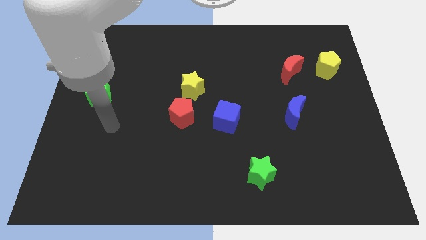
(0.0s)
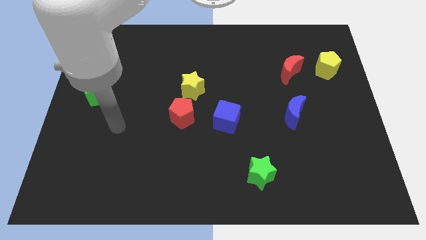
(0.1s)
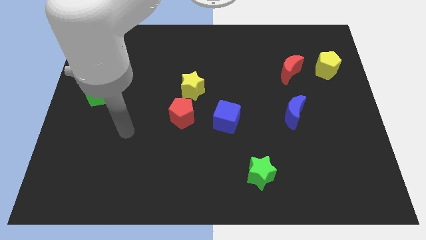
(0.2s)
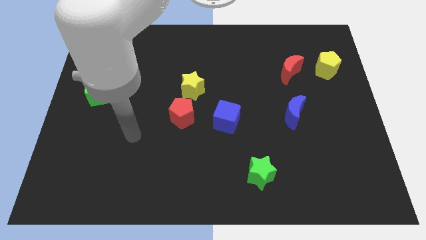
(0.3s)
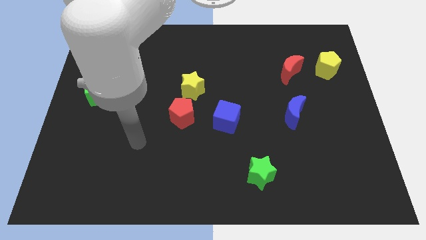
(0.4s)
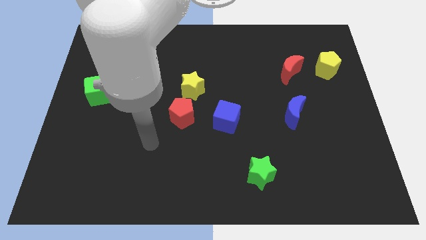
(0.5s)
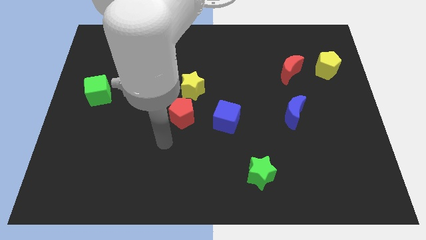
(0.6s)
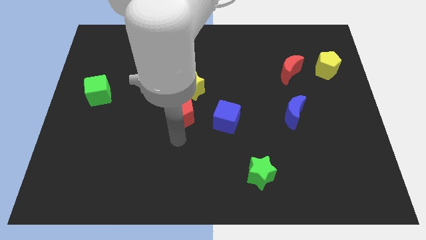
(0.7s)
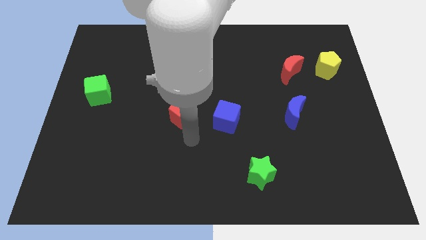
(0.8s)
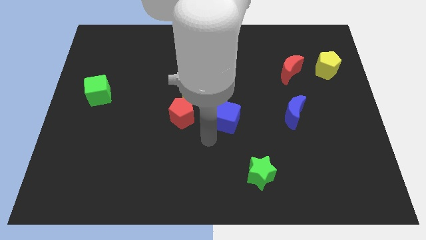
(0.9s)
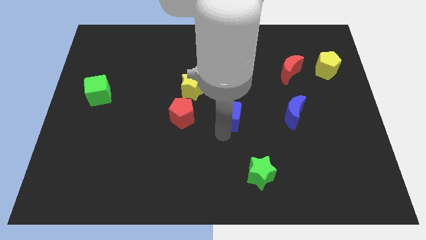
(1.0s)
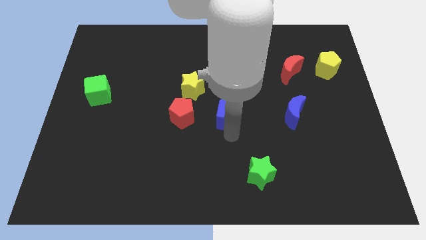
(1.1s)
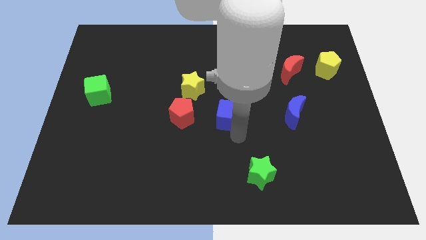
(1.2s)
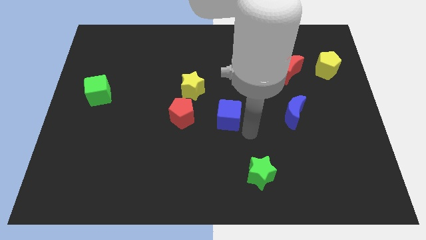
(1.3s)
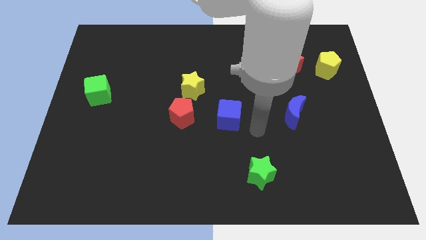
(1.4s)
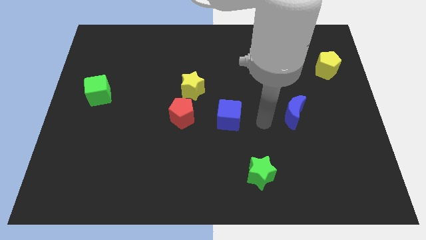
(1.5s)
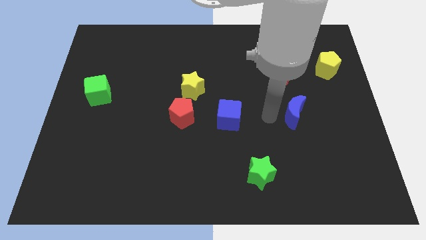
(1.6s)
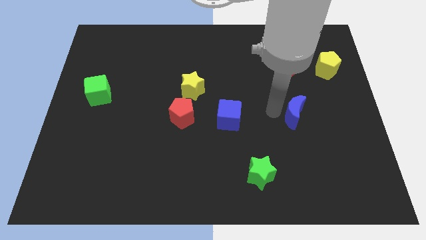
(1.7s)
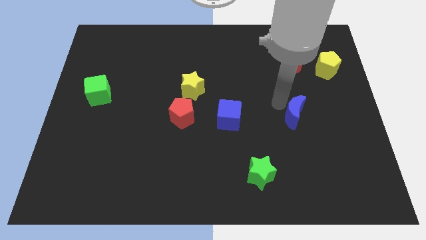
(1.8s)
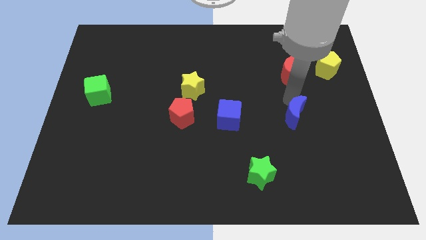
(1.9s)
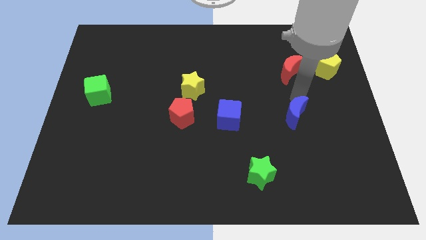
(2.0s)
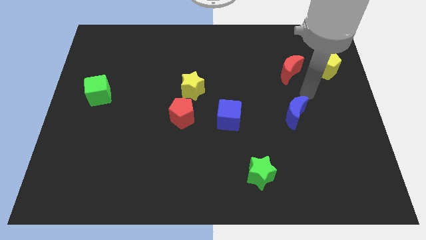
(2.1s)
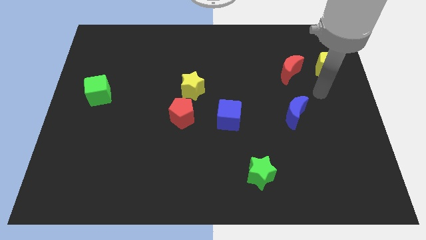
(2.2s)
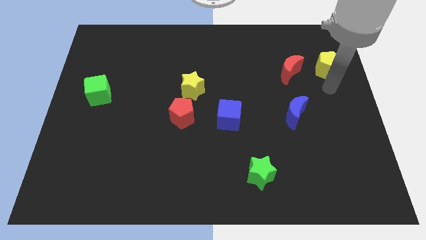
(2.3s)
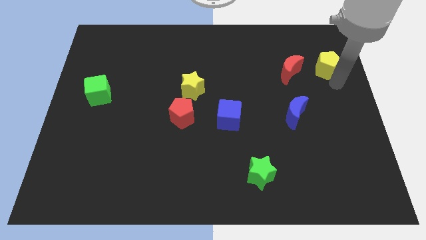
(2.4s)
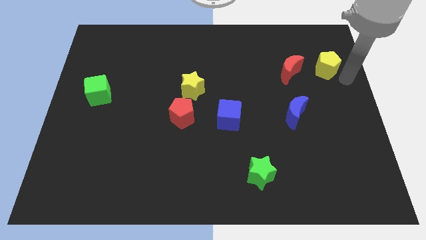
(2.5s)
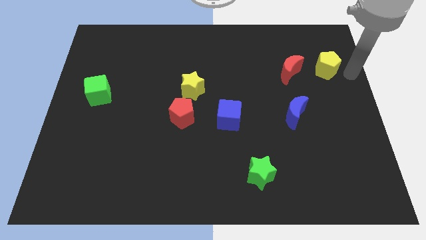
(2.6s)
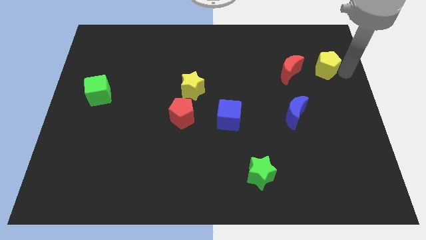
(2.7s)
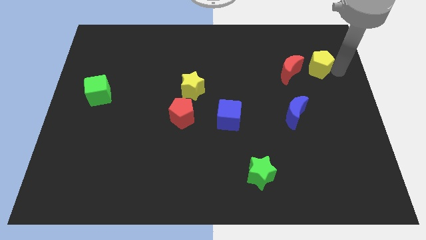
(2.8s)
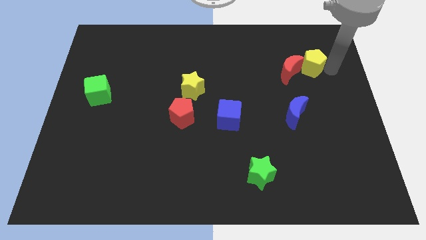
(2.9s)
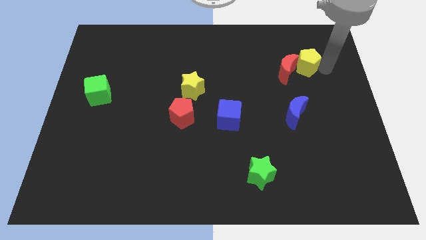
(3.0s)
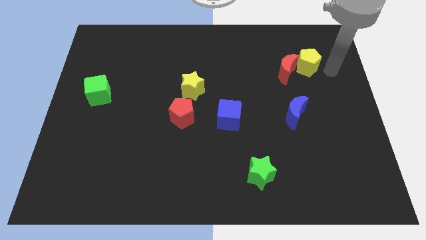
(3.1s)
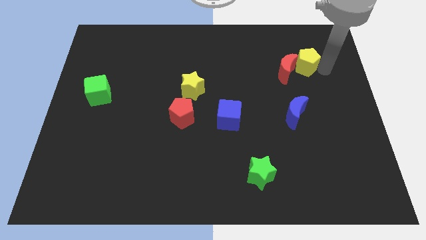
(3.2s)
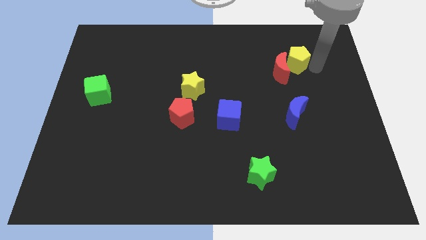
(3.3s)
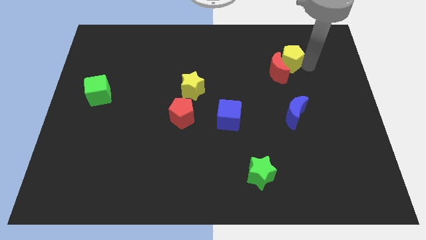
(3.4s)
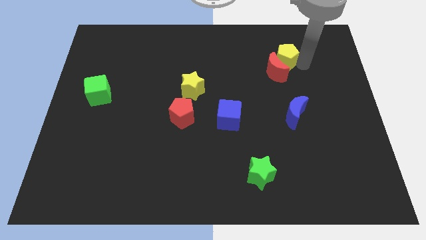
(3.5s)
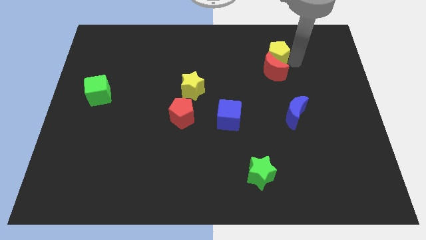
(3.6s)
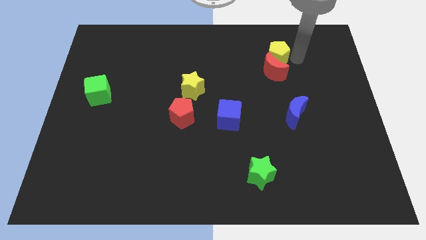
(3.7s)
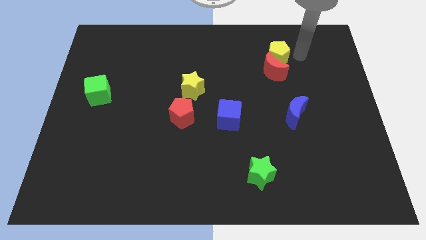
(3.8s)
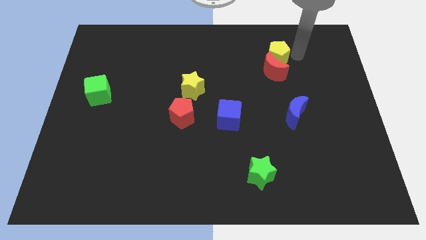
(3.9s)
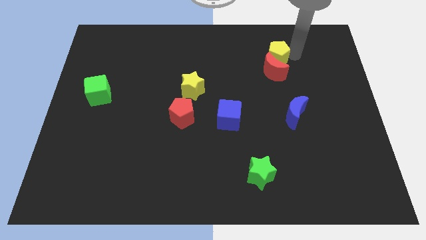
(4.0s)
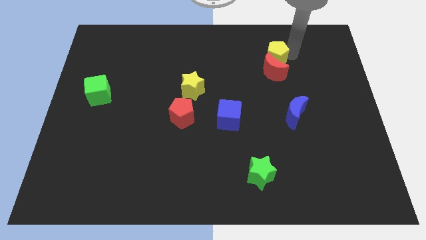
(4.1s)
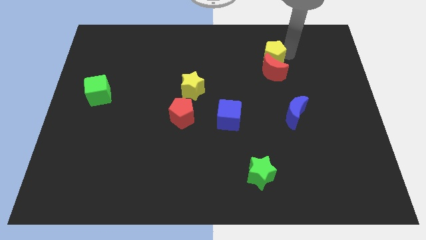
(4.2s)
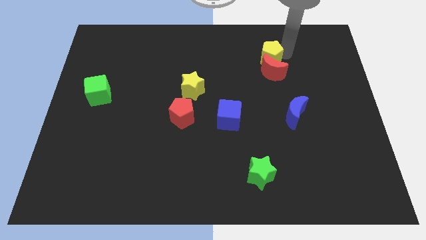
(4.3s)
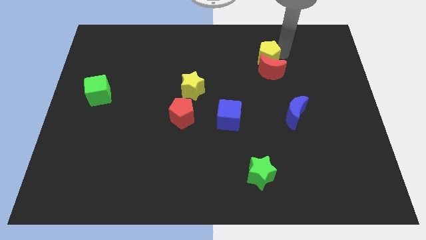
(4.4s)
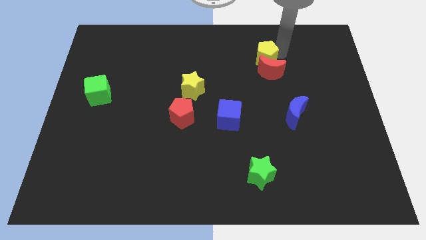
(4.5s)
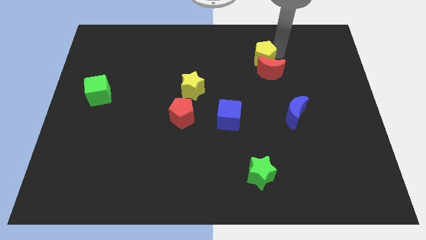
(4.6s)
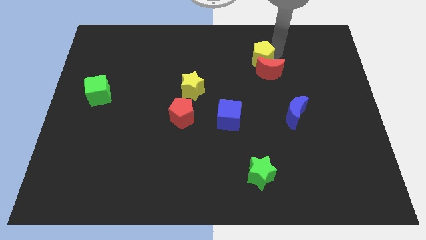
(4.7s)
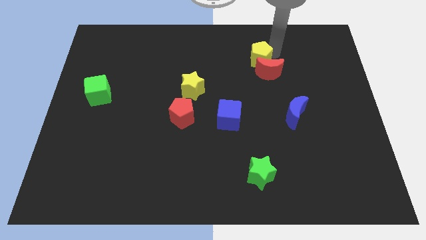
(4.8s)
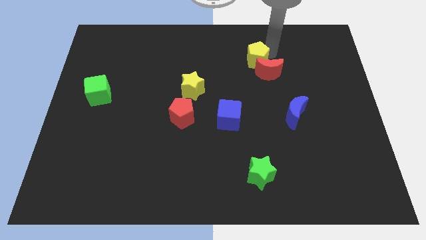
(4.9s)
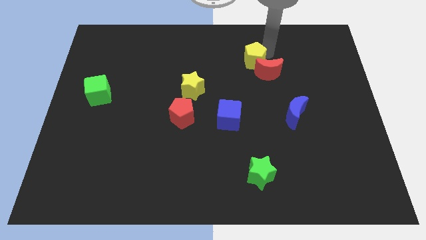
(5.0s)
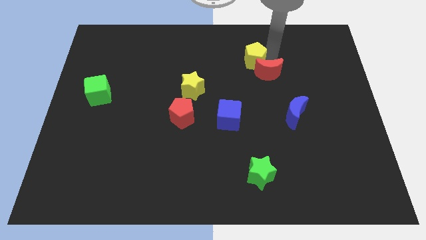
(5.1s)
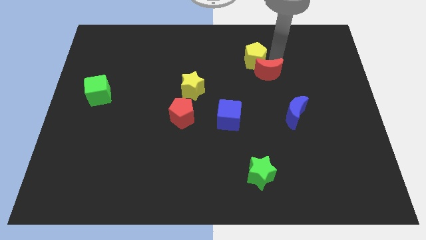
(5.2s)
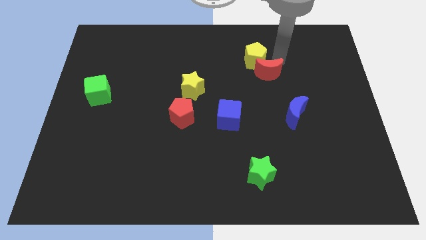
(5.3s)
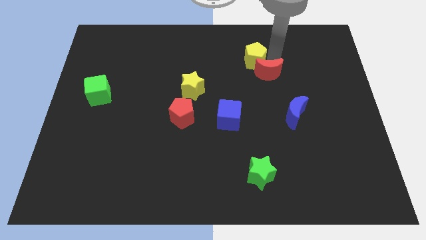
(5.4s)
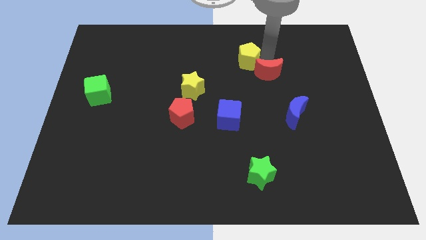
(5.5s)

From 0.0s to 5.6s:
move the yellow pentagon left

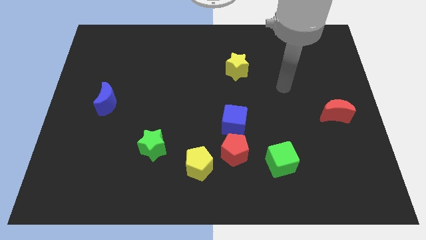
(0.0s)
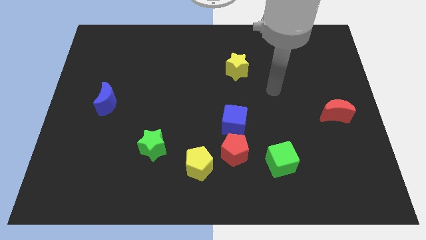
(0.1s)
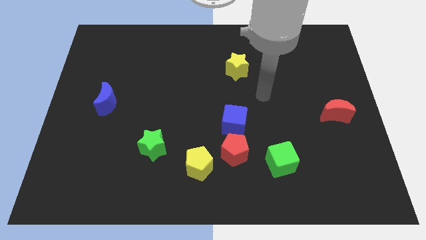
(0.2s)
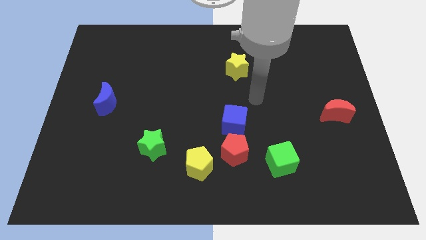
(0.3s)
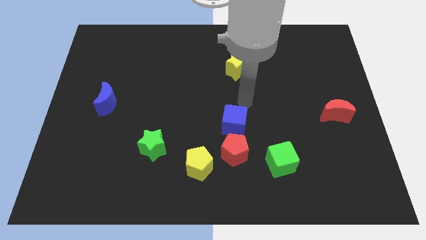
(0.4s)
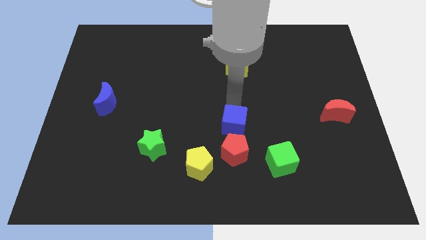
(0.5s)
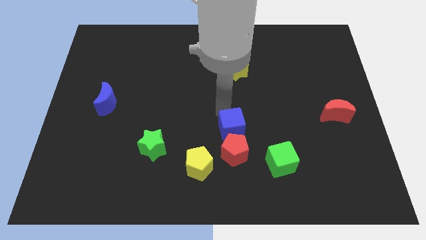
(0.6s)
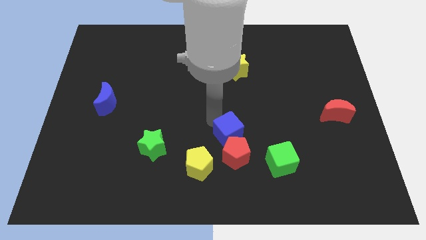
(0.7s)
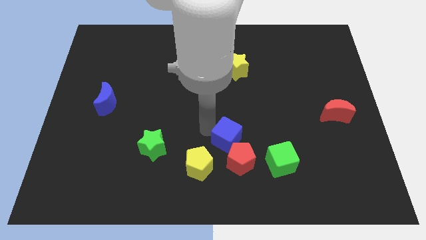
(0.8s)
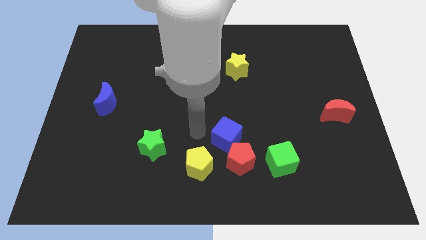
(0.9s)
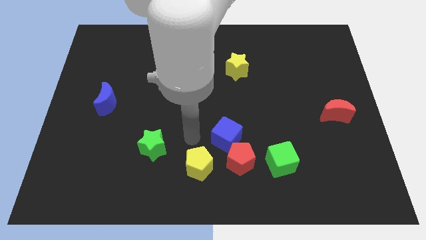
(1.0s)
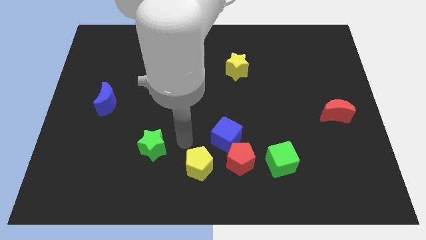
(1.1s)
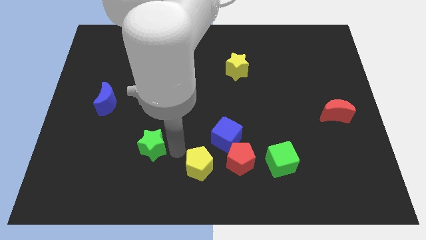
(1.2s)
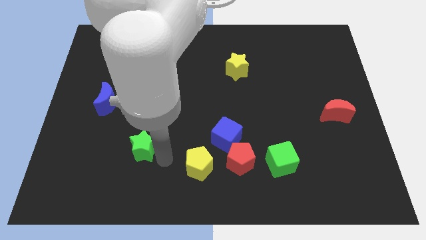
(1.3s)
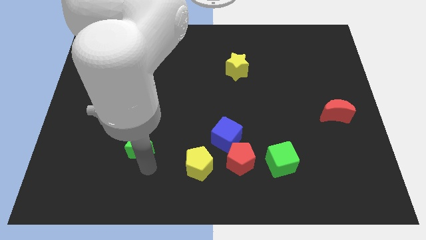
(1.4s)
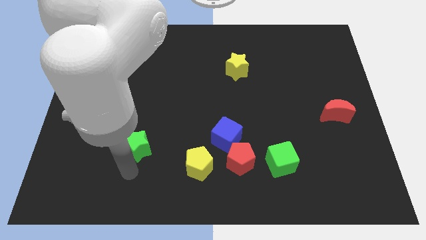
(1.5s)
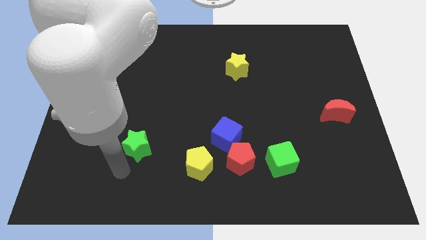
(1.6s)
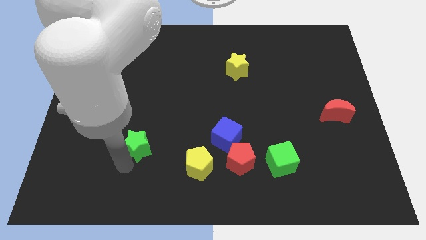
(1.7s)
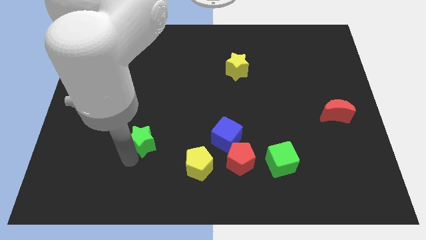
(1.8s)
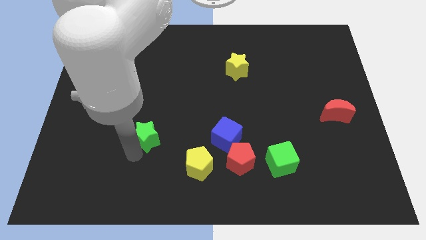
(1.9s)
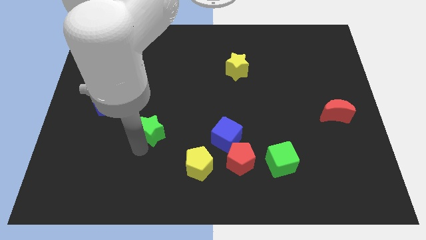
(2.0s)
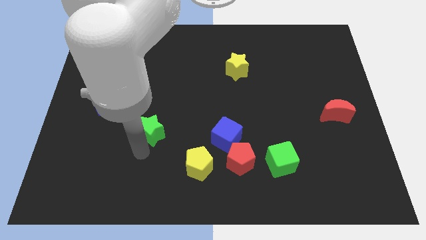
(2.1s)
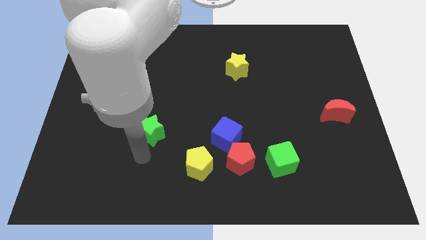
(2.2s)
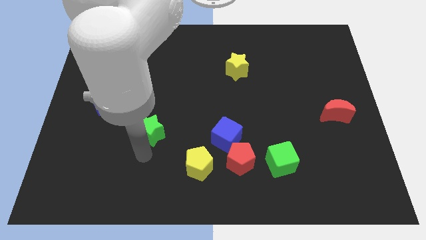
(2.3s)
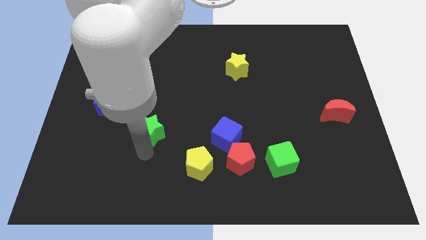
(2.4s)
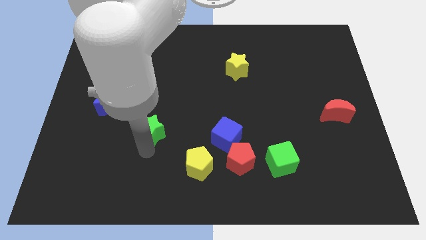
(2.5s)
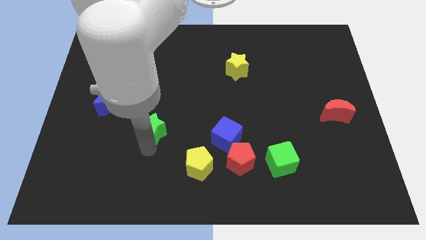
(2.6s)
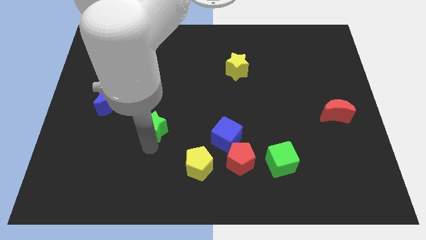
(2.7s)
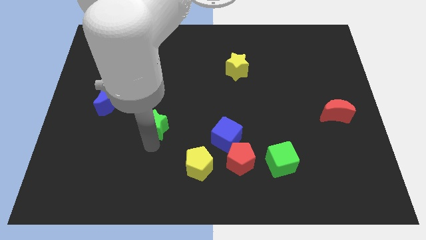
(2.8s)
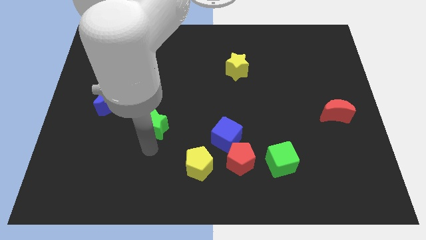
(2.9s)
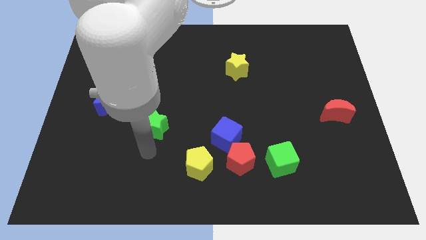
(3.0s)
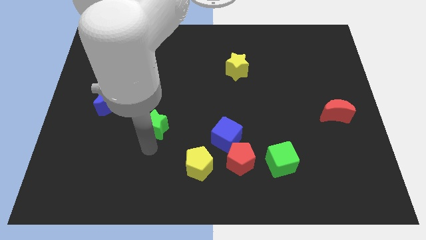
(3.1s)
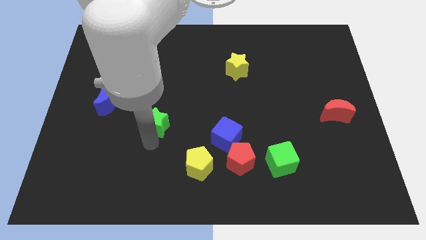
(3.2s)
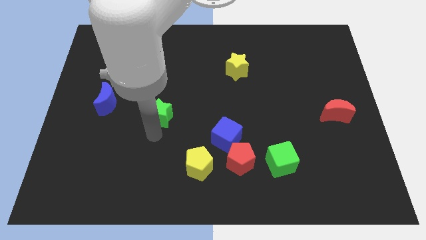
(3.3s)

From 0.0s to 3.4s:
slide the green star a bit upwards
